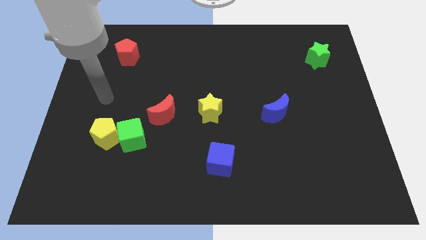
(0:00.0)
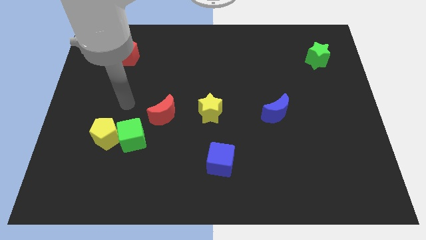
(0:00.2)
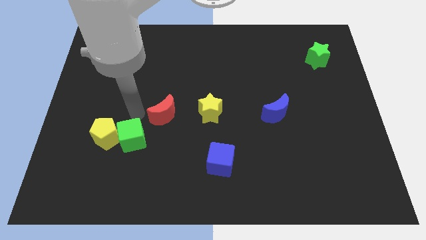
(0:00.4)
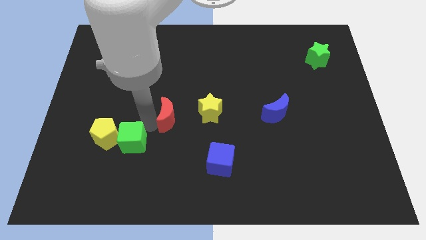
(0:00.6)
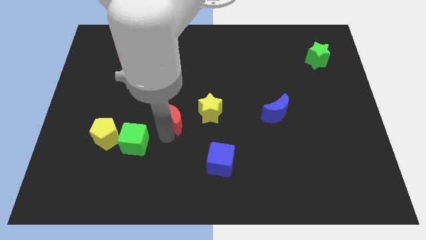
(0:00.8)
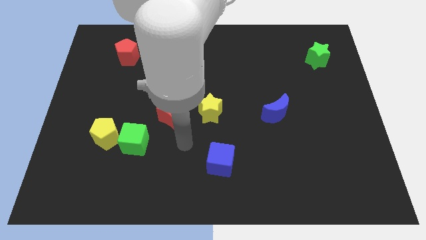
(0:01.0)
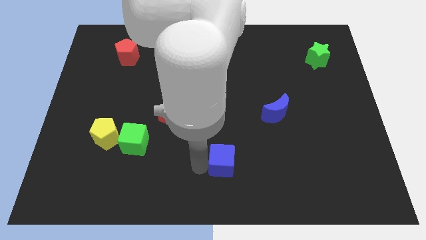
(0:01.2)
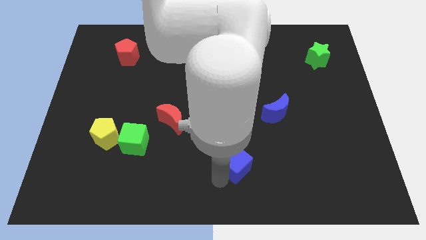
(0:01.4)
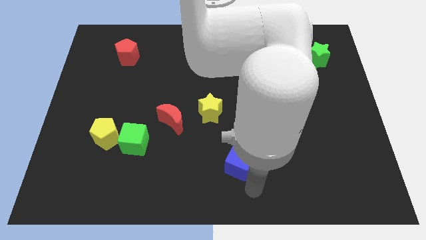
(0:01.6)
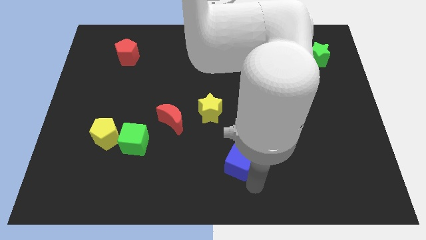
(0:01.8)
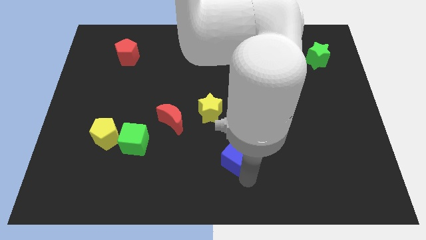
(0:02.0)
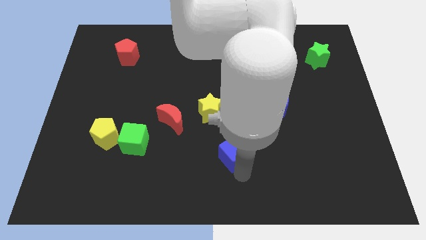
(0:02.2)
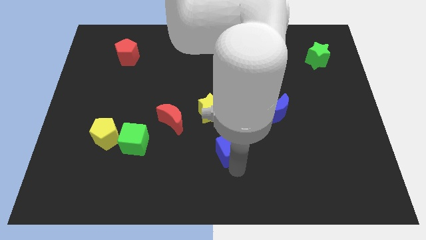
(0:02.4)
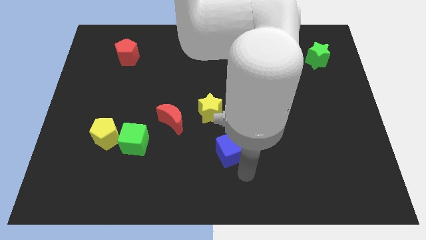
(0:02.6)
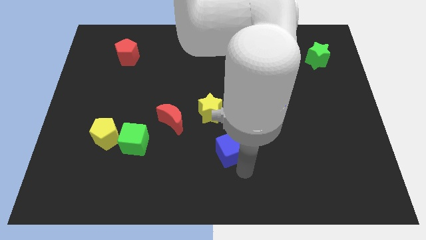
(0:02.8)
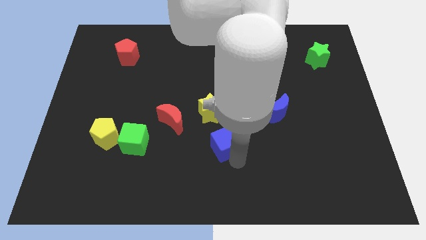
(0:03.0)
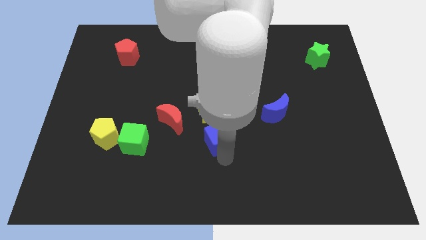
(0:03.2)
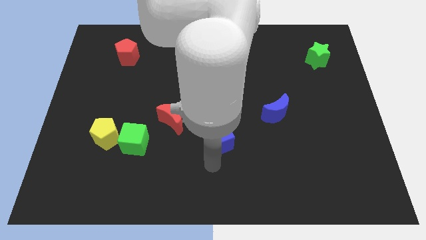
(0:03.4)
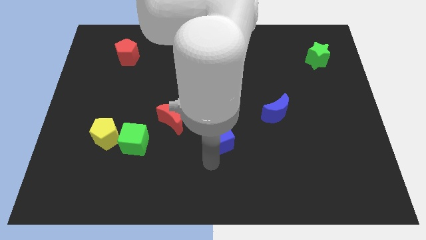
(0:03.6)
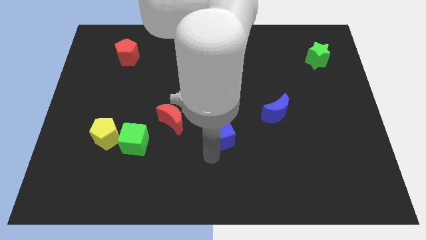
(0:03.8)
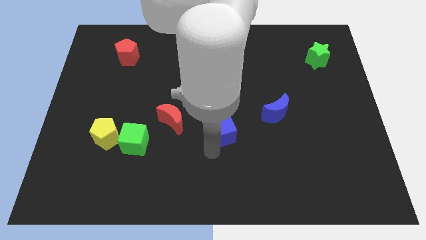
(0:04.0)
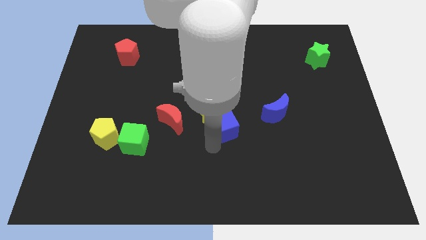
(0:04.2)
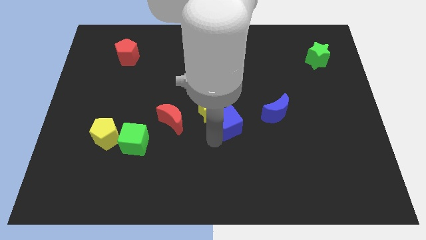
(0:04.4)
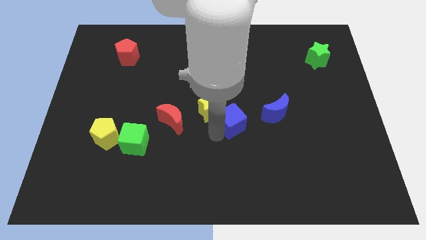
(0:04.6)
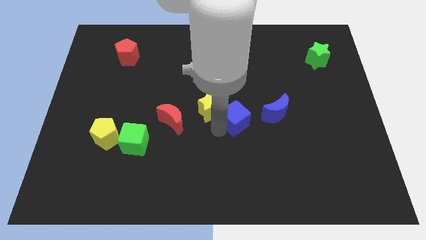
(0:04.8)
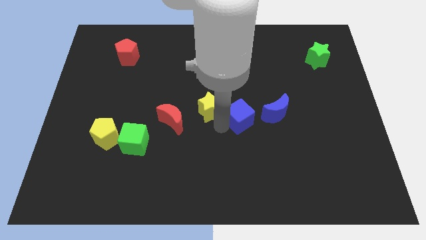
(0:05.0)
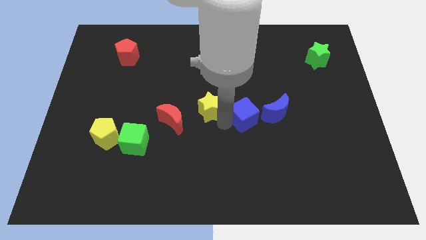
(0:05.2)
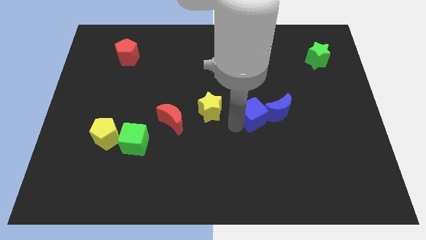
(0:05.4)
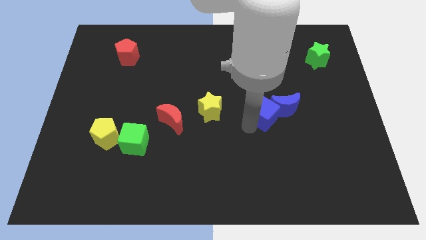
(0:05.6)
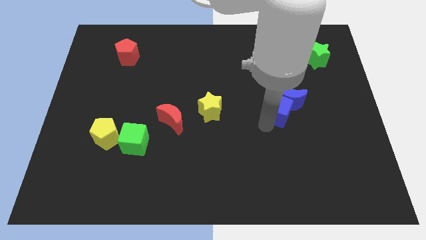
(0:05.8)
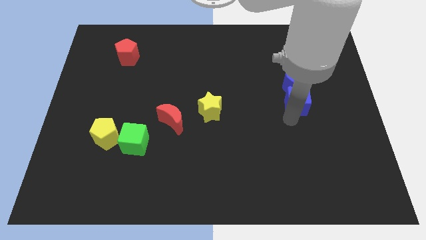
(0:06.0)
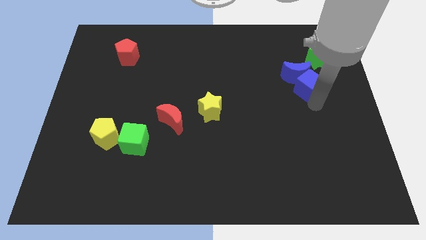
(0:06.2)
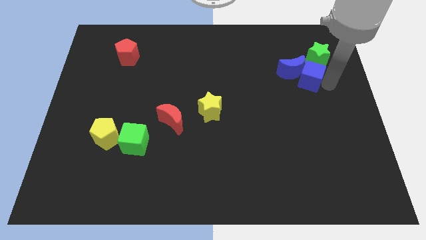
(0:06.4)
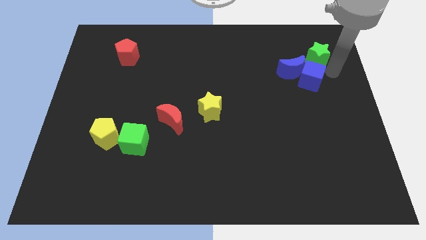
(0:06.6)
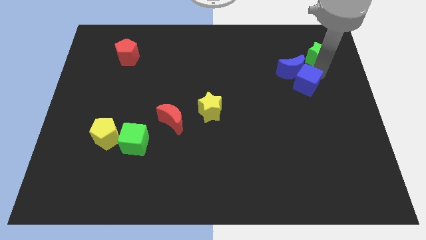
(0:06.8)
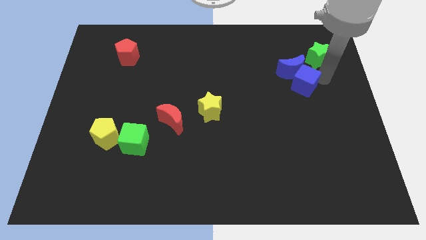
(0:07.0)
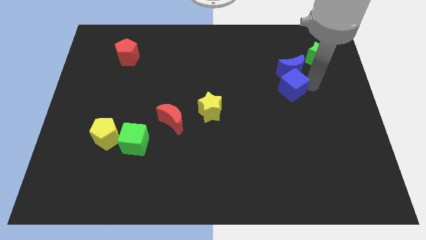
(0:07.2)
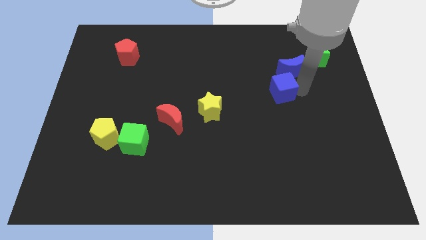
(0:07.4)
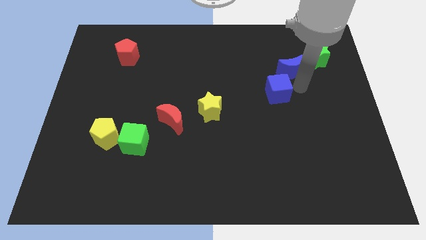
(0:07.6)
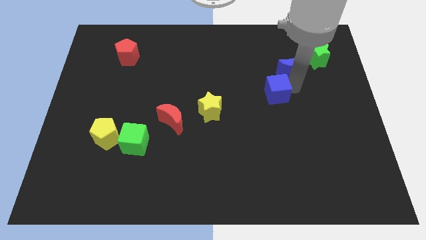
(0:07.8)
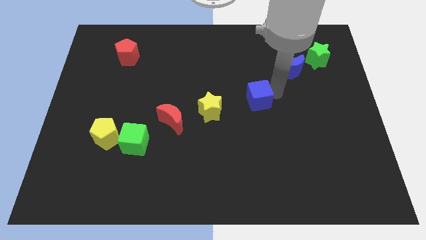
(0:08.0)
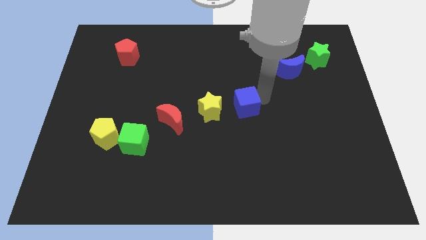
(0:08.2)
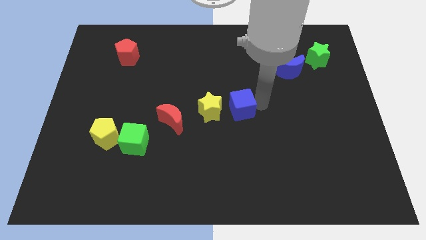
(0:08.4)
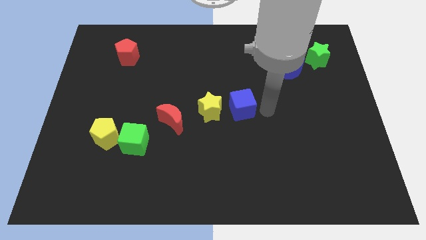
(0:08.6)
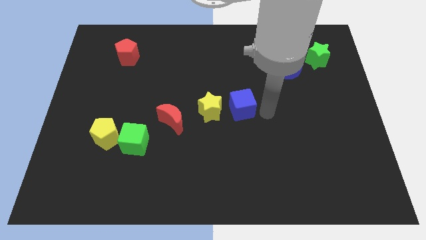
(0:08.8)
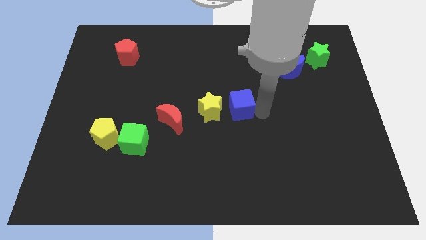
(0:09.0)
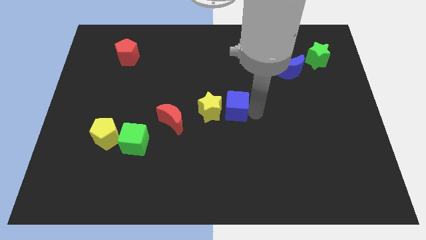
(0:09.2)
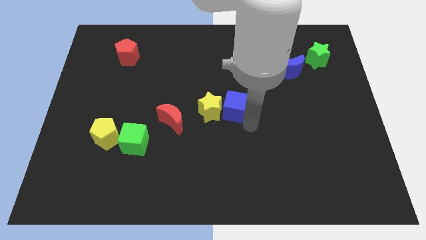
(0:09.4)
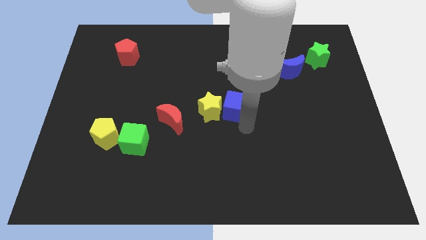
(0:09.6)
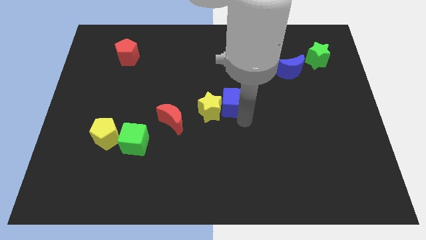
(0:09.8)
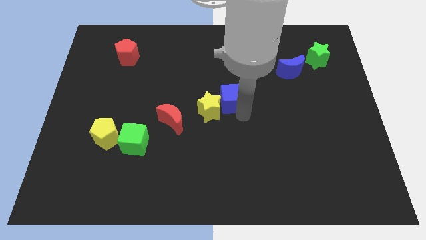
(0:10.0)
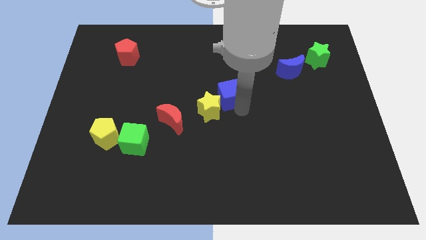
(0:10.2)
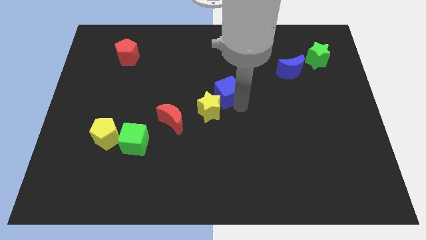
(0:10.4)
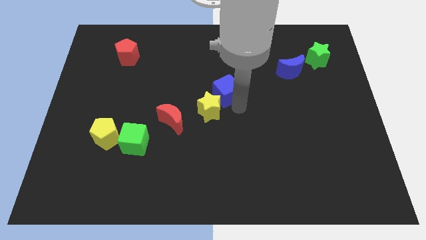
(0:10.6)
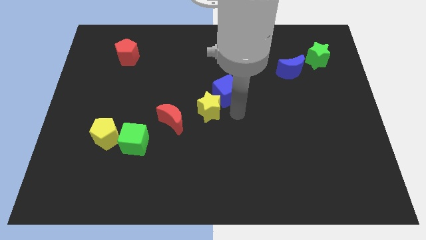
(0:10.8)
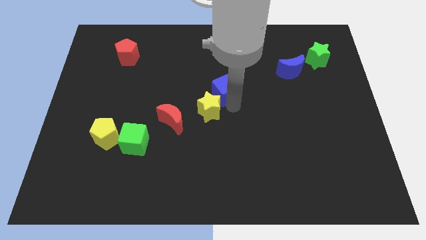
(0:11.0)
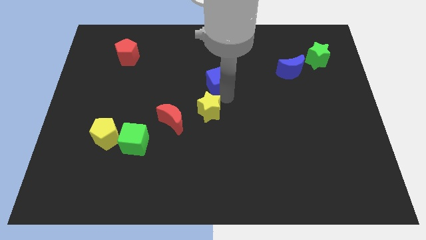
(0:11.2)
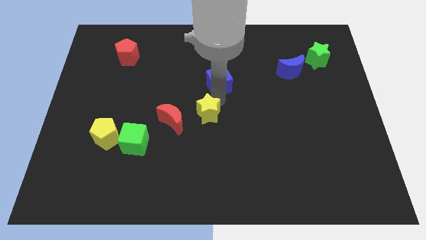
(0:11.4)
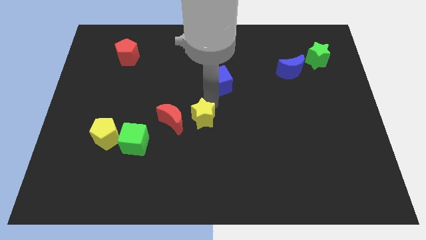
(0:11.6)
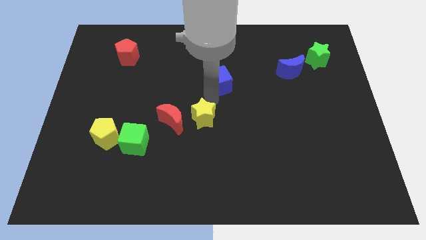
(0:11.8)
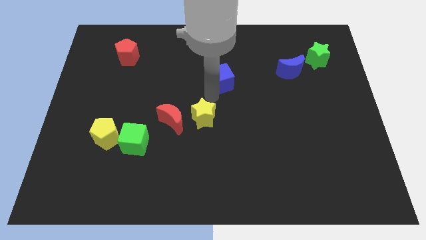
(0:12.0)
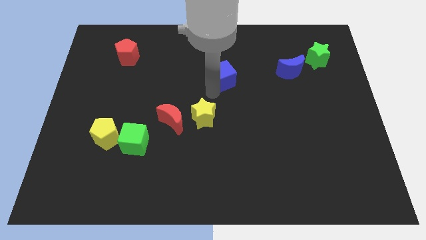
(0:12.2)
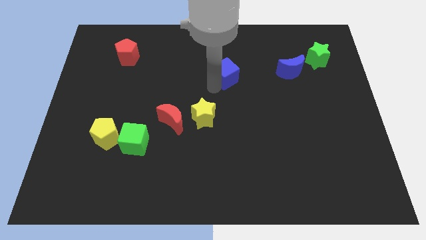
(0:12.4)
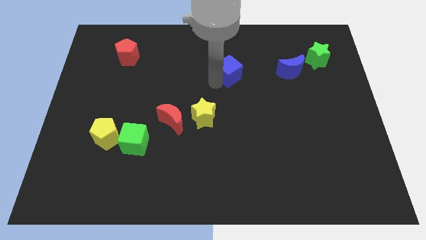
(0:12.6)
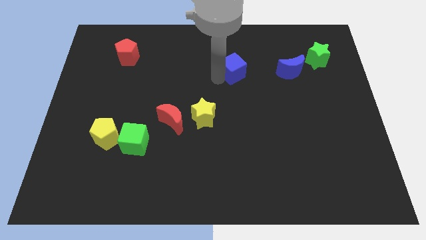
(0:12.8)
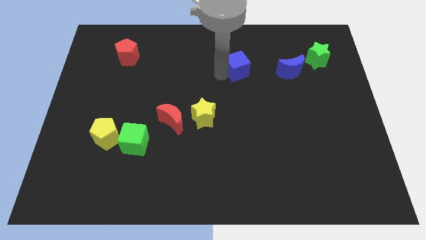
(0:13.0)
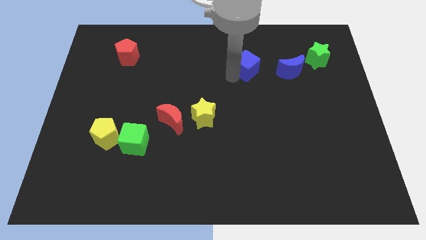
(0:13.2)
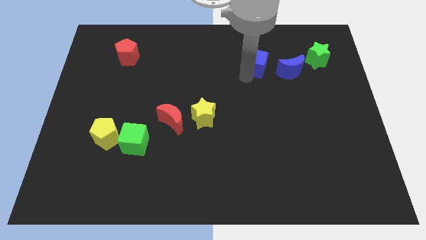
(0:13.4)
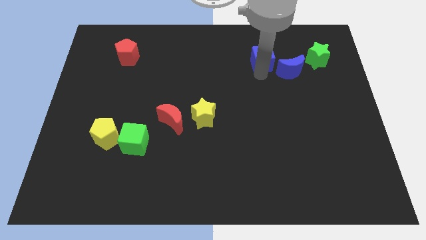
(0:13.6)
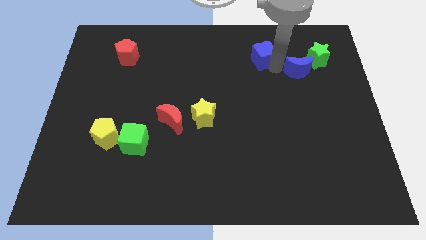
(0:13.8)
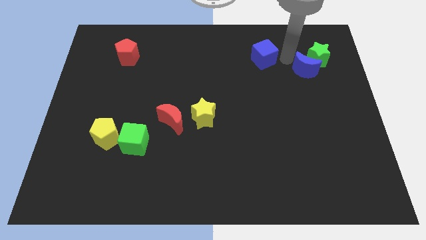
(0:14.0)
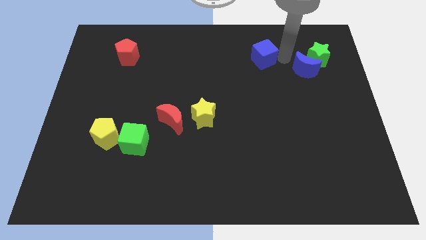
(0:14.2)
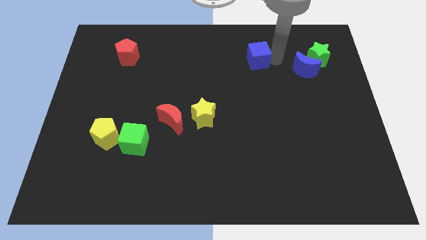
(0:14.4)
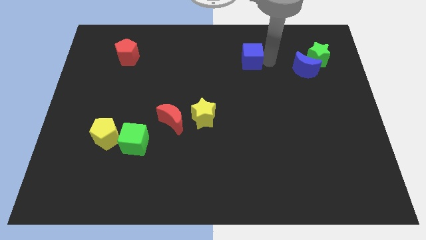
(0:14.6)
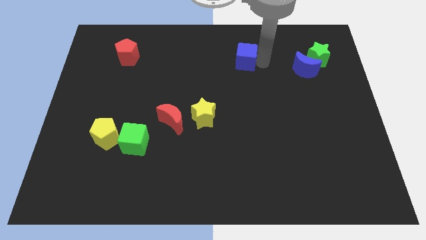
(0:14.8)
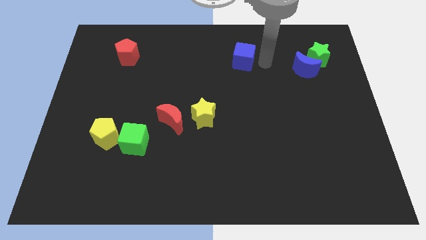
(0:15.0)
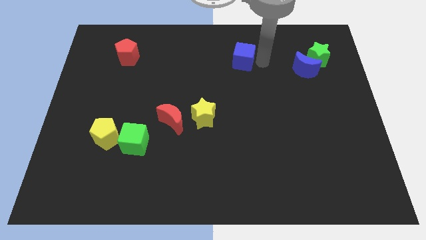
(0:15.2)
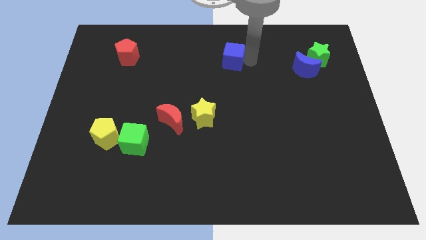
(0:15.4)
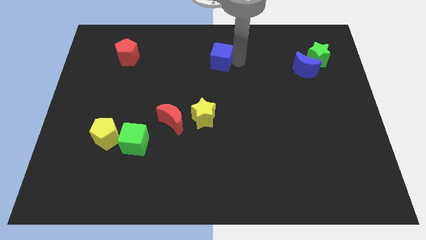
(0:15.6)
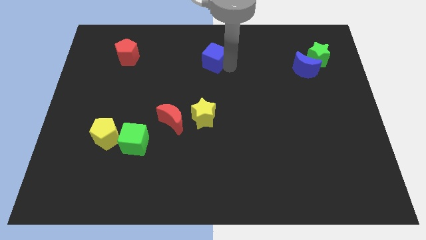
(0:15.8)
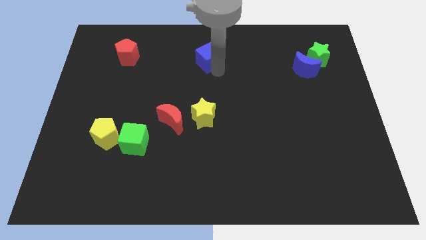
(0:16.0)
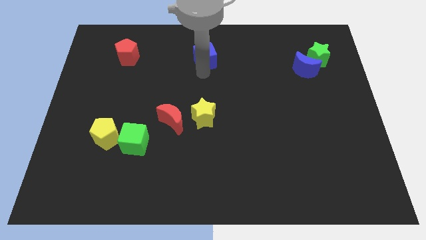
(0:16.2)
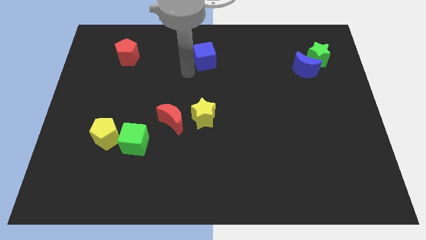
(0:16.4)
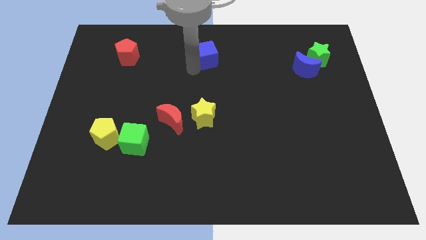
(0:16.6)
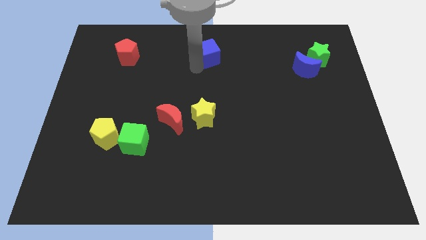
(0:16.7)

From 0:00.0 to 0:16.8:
move the blue cube to the towards your base
